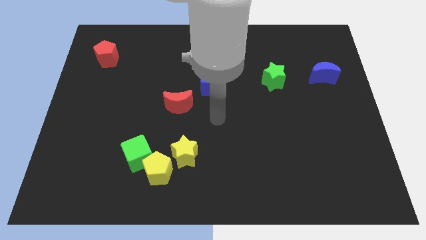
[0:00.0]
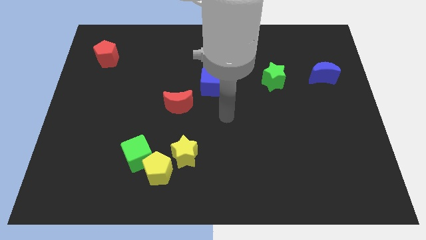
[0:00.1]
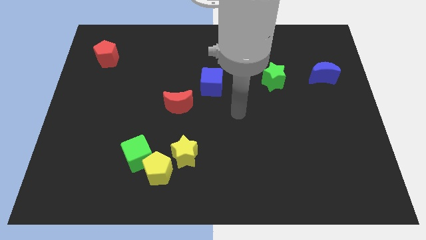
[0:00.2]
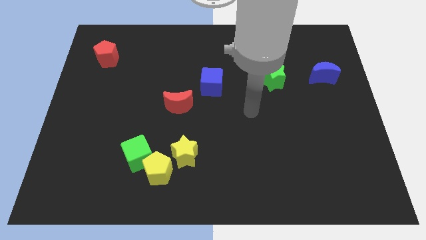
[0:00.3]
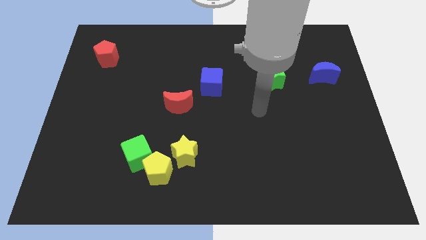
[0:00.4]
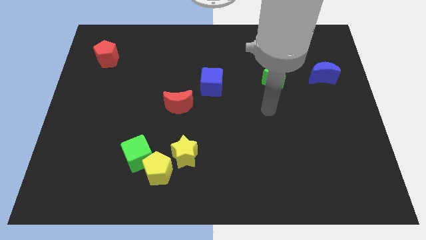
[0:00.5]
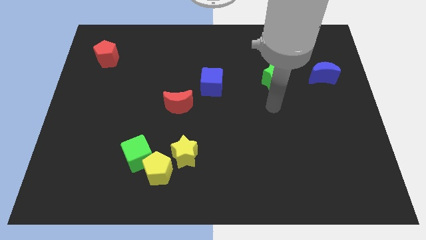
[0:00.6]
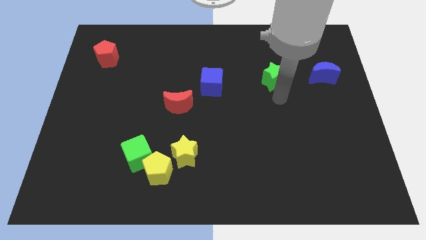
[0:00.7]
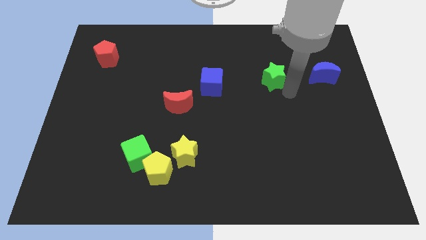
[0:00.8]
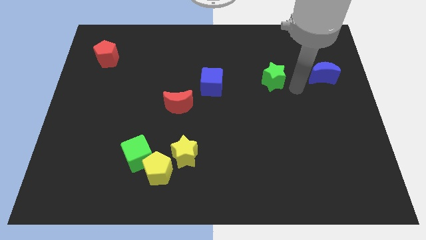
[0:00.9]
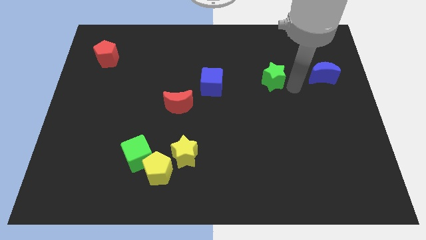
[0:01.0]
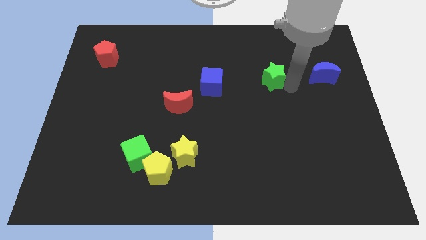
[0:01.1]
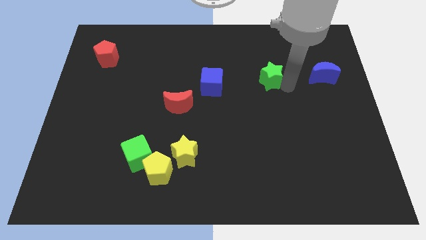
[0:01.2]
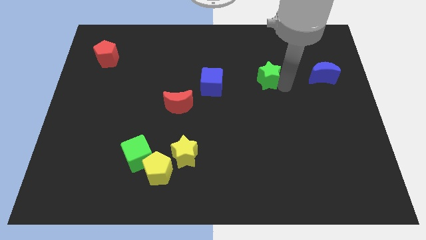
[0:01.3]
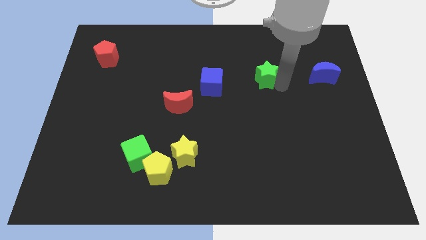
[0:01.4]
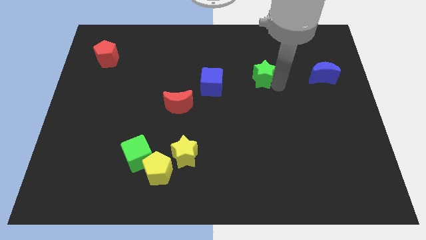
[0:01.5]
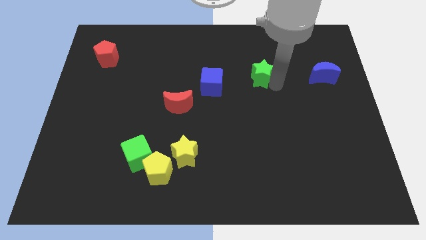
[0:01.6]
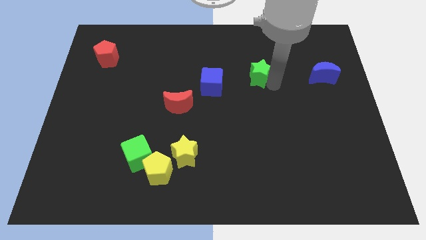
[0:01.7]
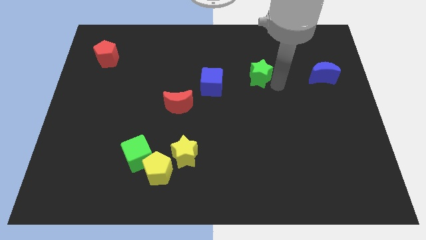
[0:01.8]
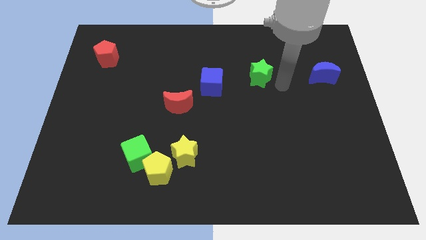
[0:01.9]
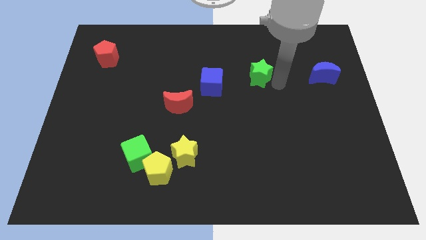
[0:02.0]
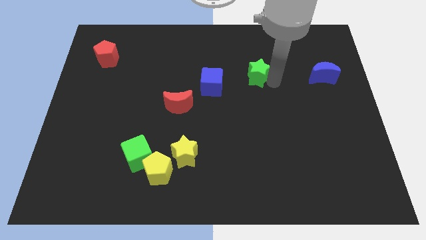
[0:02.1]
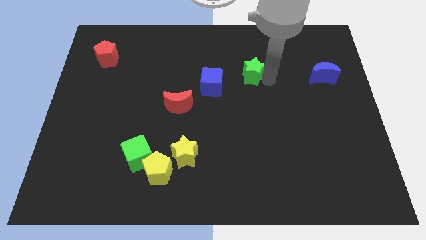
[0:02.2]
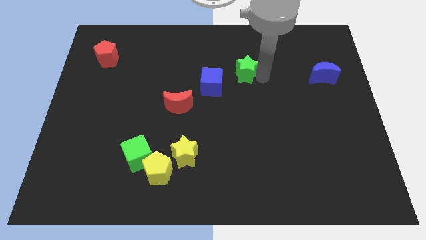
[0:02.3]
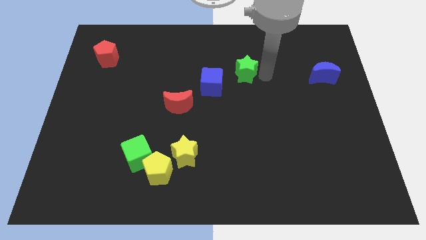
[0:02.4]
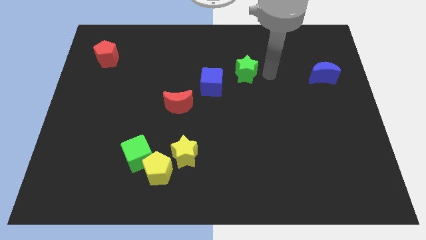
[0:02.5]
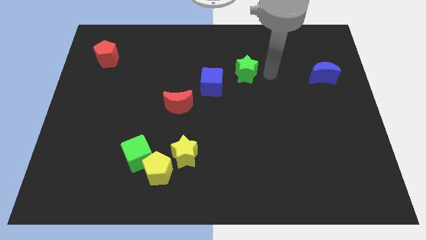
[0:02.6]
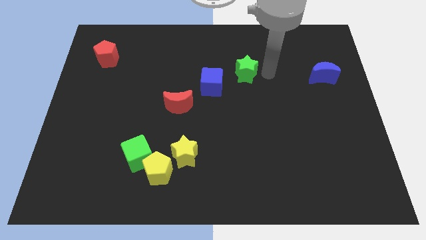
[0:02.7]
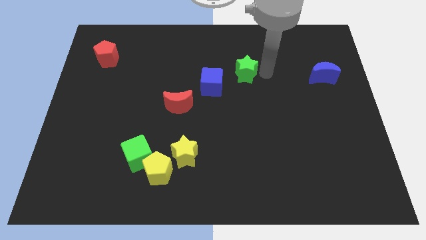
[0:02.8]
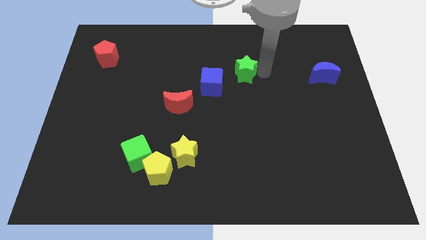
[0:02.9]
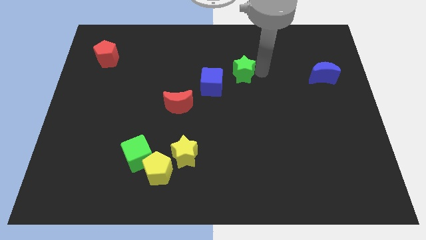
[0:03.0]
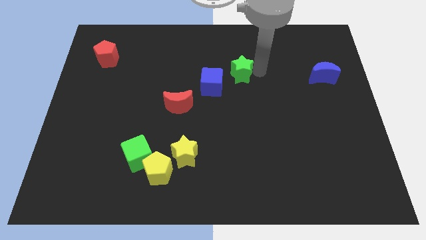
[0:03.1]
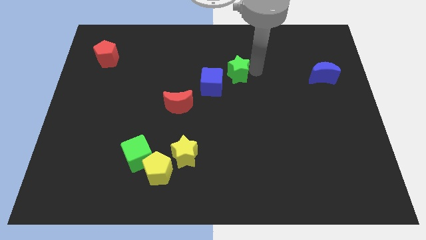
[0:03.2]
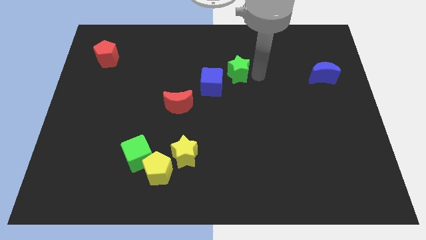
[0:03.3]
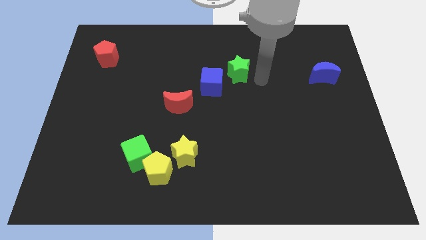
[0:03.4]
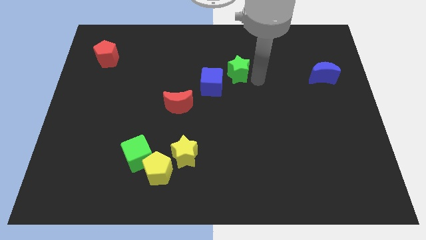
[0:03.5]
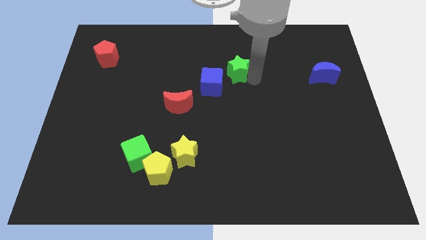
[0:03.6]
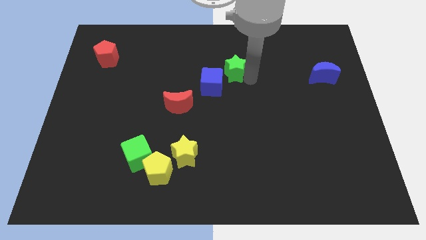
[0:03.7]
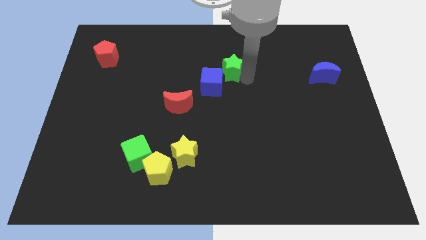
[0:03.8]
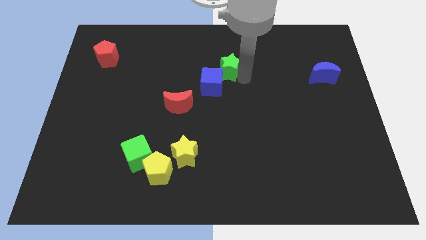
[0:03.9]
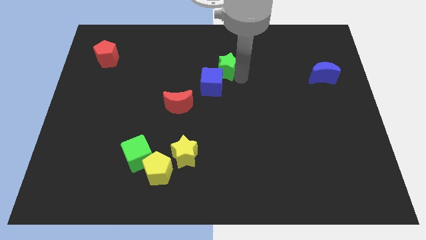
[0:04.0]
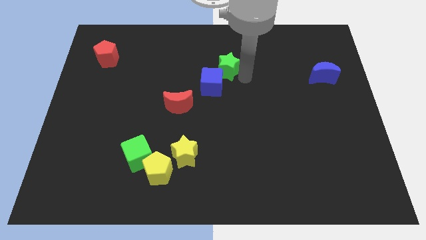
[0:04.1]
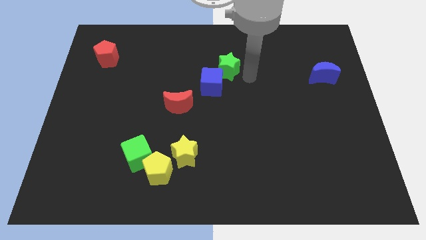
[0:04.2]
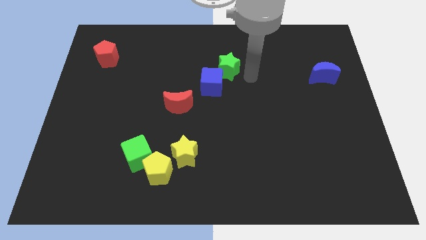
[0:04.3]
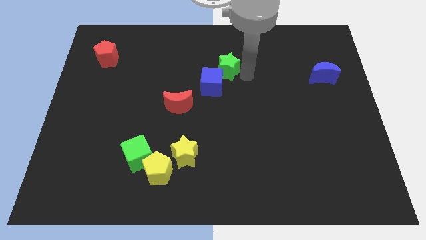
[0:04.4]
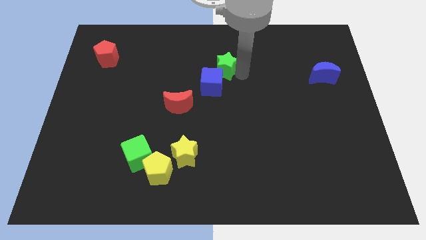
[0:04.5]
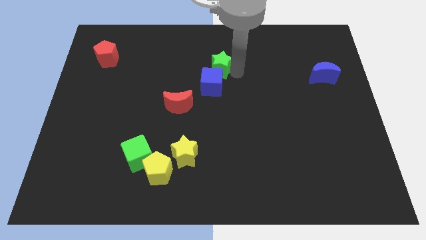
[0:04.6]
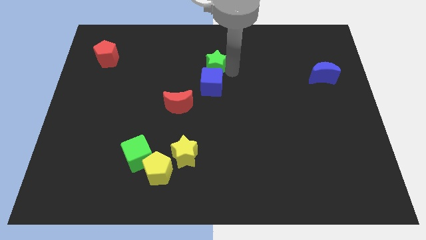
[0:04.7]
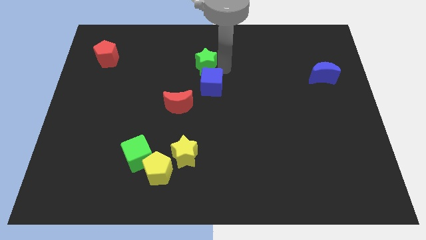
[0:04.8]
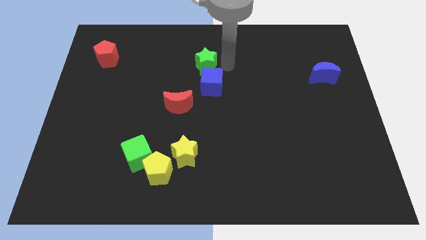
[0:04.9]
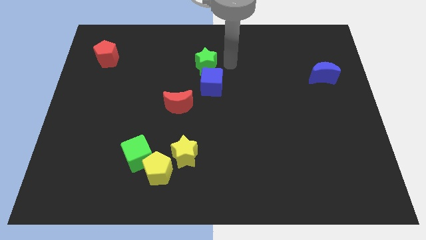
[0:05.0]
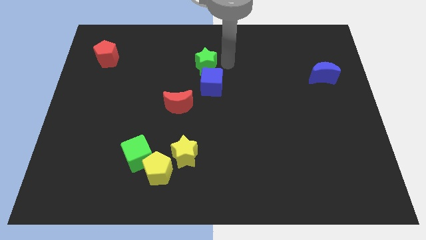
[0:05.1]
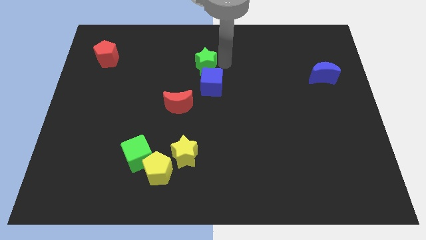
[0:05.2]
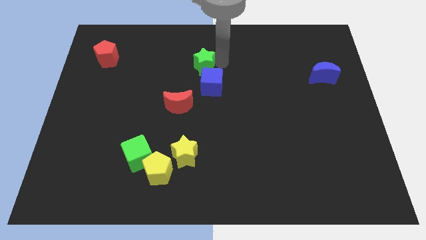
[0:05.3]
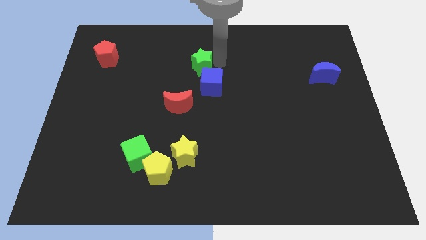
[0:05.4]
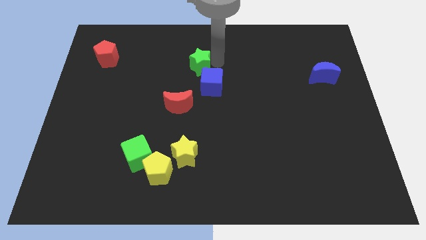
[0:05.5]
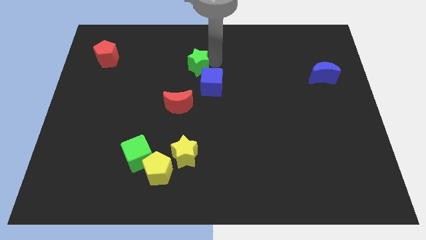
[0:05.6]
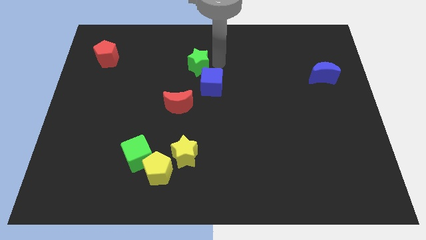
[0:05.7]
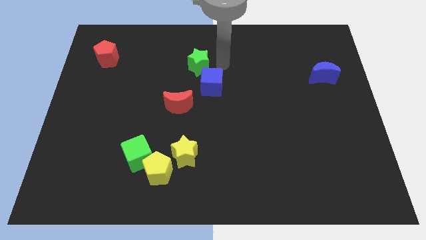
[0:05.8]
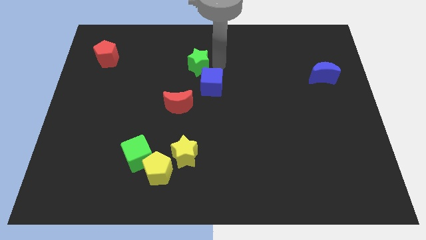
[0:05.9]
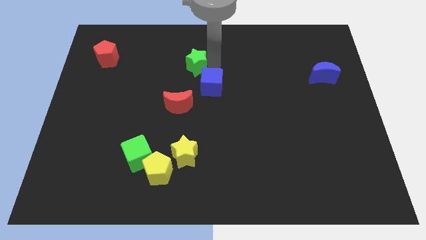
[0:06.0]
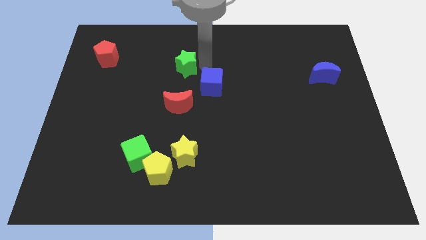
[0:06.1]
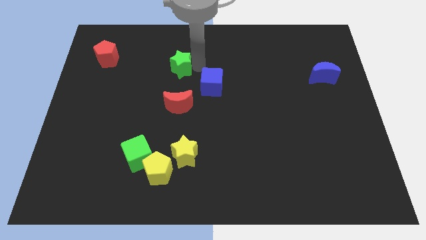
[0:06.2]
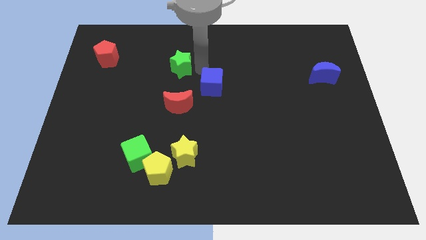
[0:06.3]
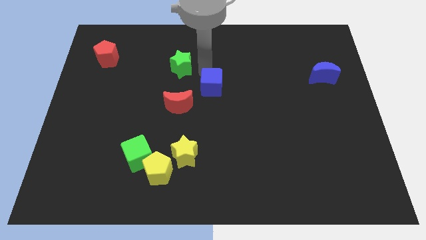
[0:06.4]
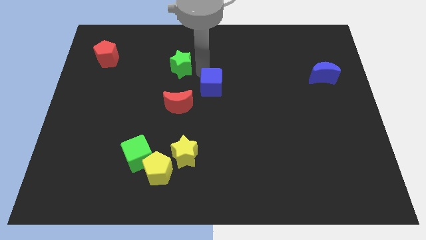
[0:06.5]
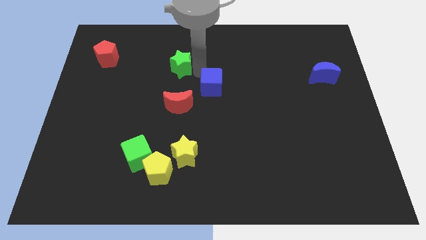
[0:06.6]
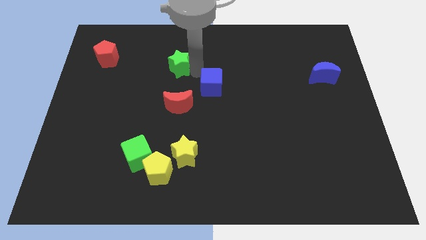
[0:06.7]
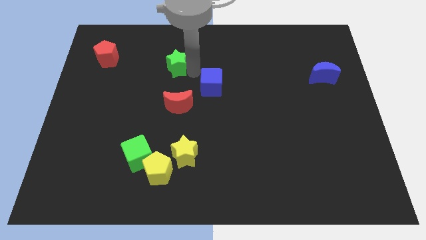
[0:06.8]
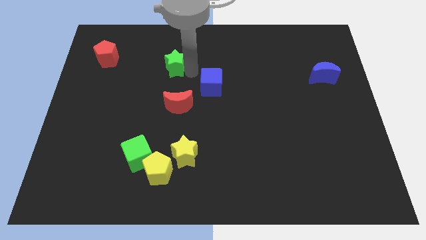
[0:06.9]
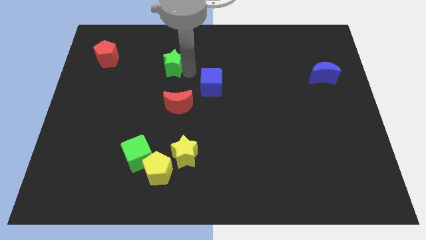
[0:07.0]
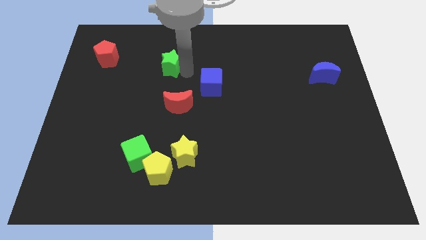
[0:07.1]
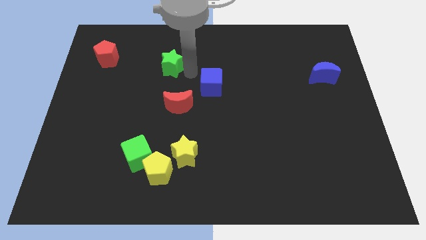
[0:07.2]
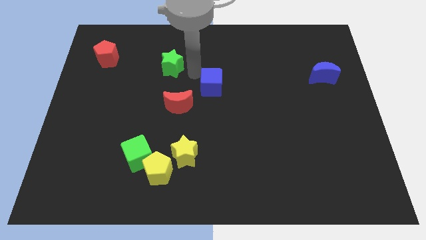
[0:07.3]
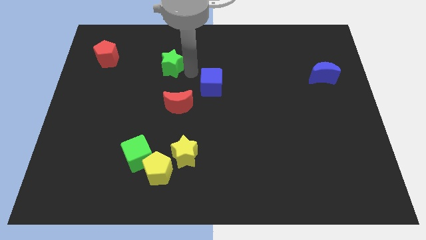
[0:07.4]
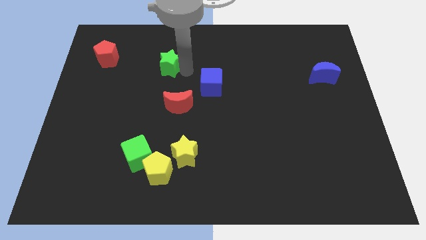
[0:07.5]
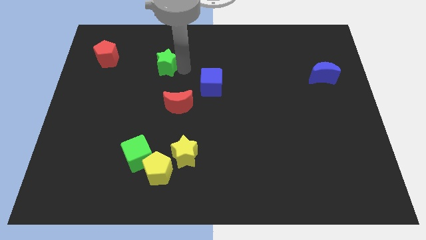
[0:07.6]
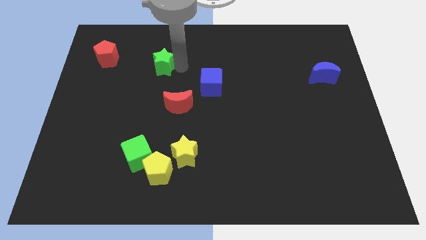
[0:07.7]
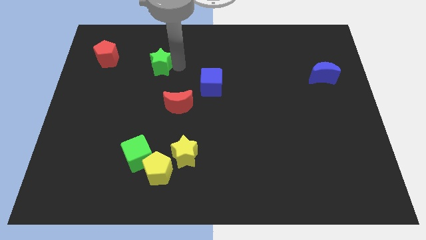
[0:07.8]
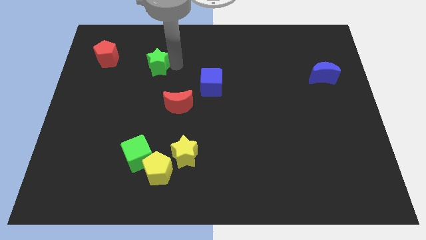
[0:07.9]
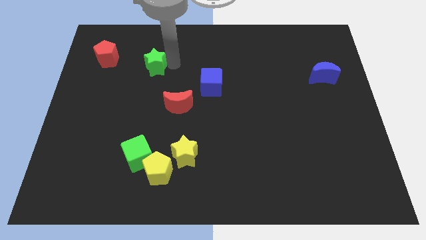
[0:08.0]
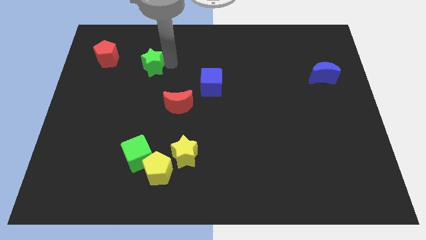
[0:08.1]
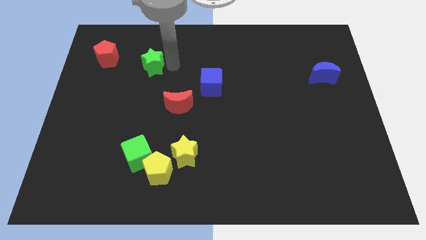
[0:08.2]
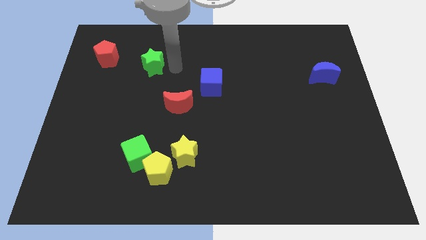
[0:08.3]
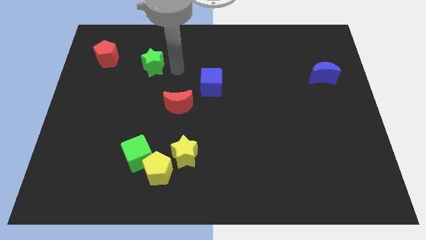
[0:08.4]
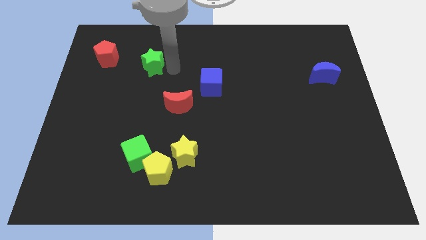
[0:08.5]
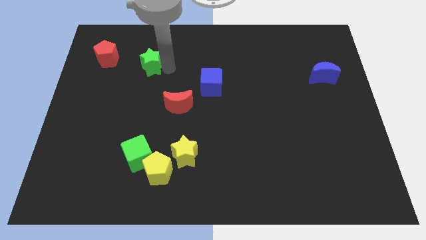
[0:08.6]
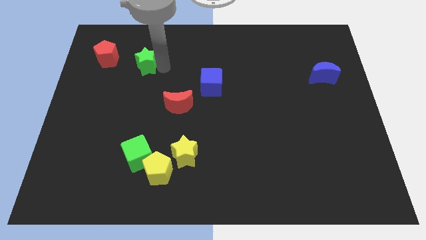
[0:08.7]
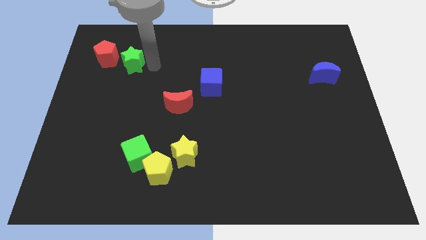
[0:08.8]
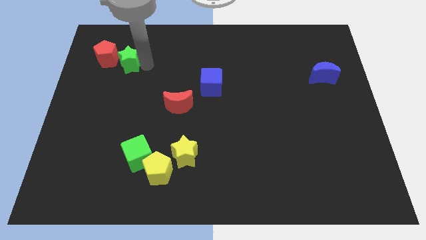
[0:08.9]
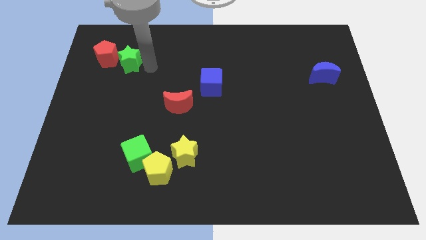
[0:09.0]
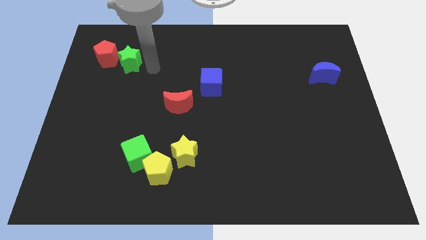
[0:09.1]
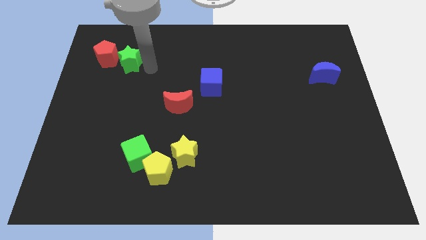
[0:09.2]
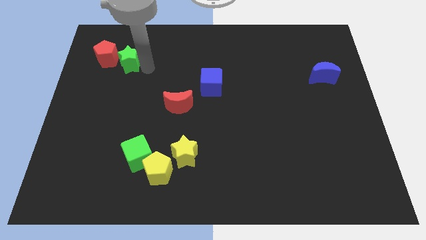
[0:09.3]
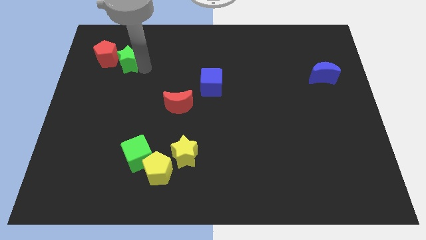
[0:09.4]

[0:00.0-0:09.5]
slide the green star towards the red pentagon
